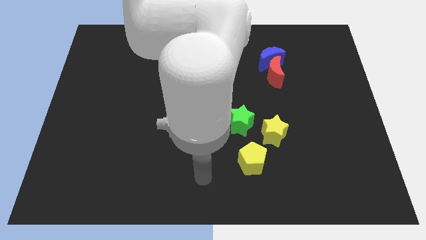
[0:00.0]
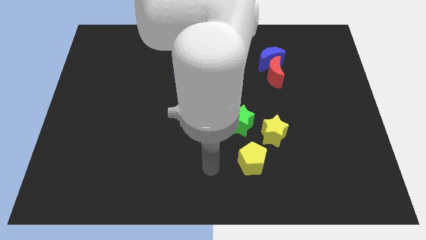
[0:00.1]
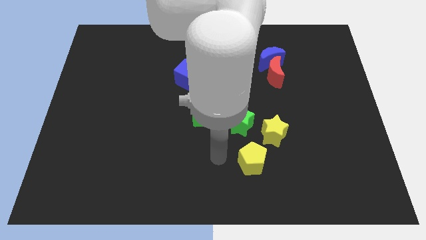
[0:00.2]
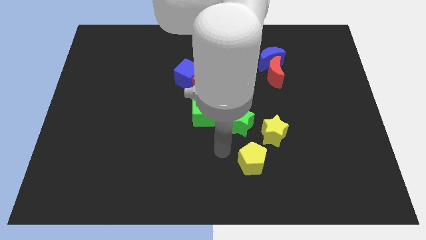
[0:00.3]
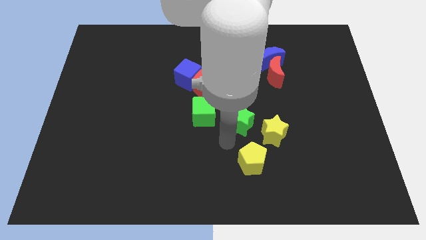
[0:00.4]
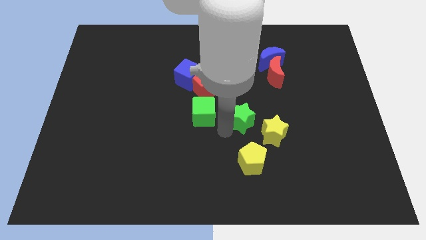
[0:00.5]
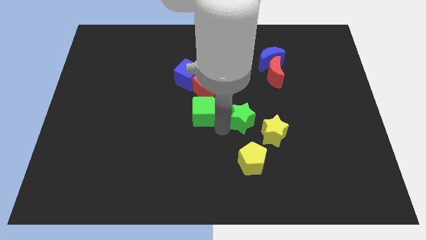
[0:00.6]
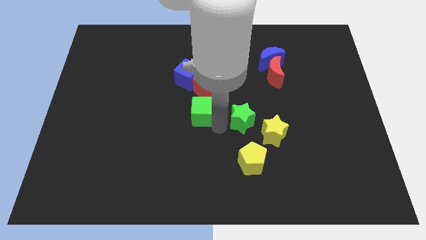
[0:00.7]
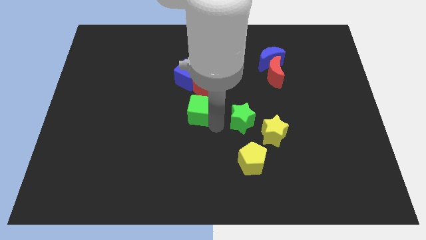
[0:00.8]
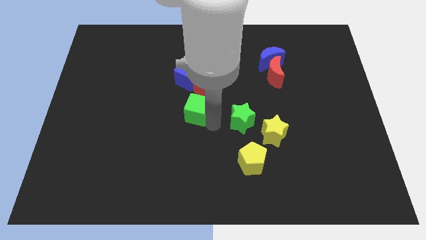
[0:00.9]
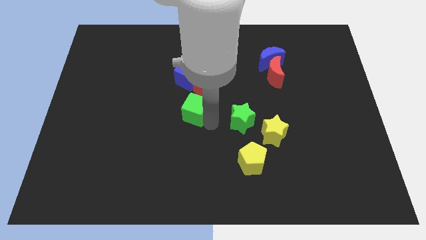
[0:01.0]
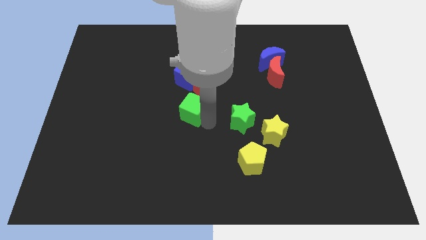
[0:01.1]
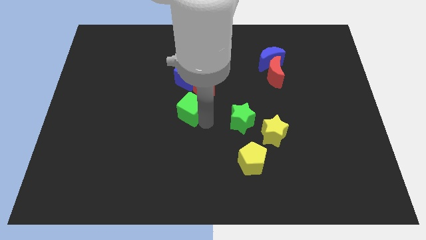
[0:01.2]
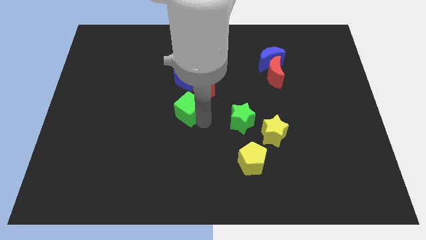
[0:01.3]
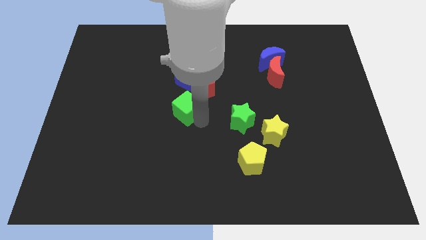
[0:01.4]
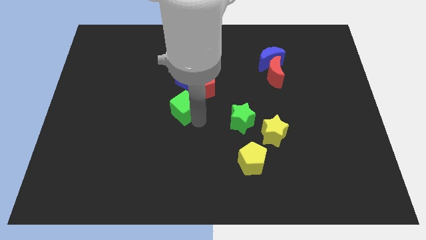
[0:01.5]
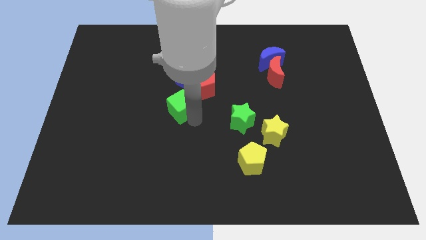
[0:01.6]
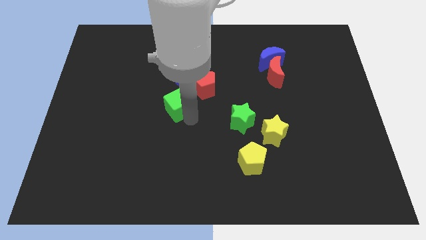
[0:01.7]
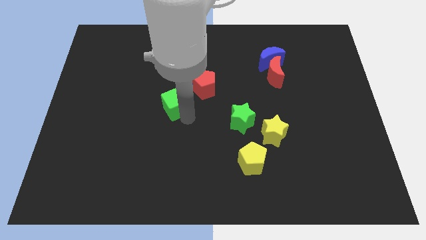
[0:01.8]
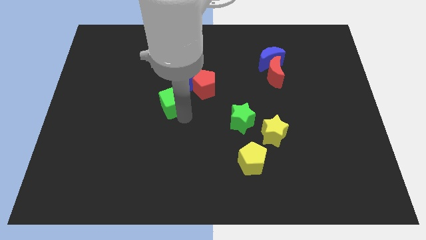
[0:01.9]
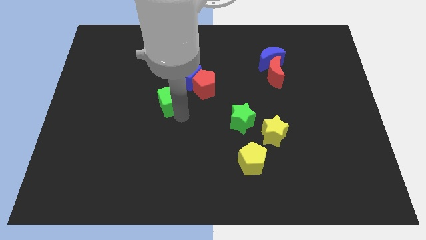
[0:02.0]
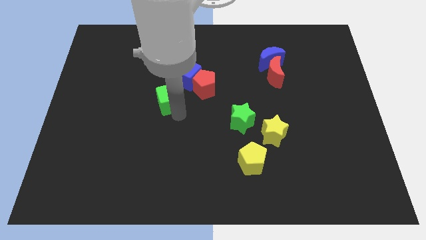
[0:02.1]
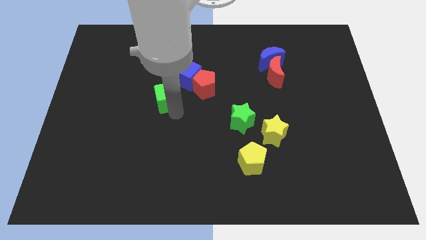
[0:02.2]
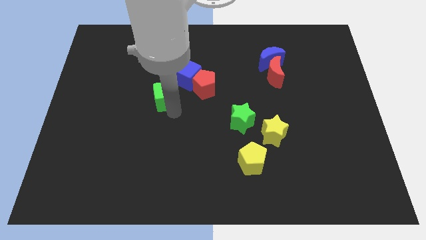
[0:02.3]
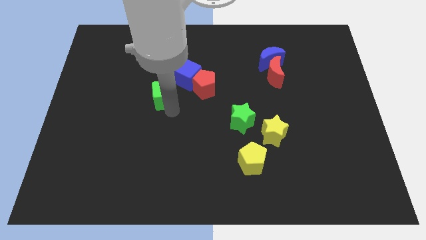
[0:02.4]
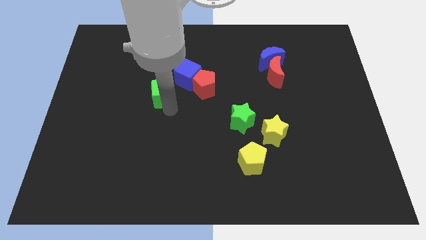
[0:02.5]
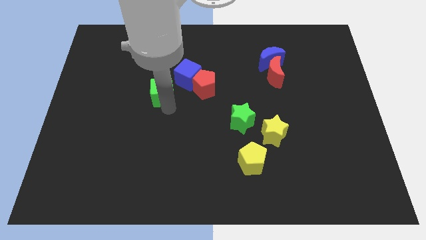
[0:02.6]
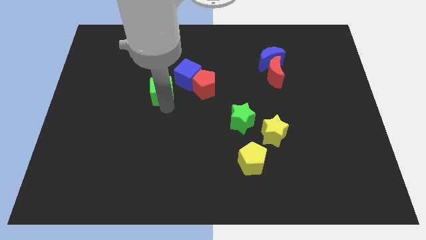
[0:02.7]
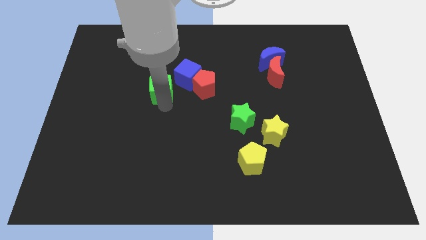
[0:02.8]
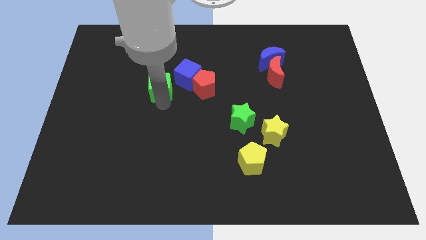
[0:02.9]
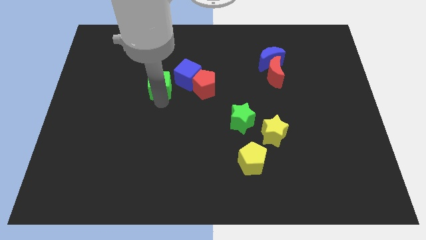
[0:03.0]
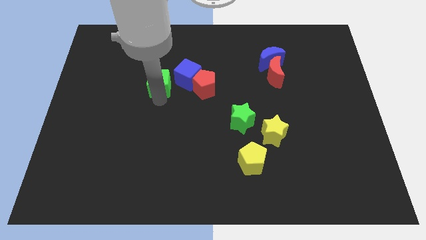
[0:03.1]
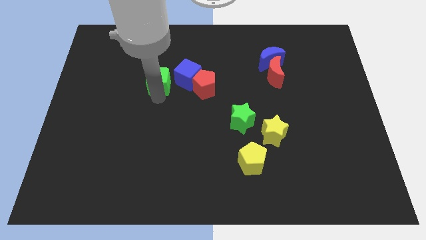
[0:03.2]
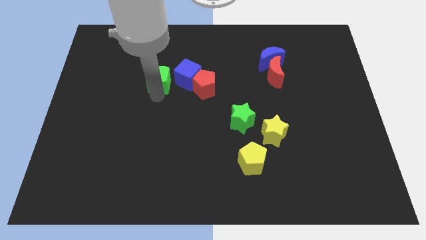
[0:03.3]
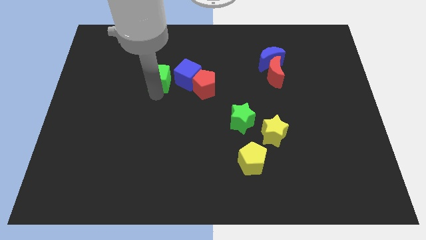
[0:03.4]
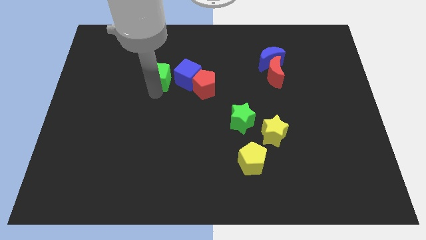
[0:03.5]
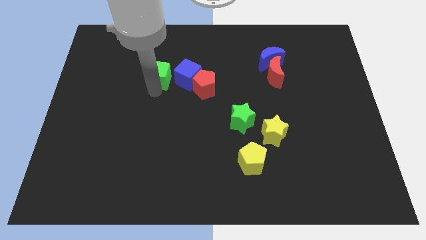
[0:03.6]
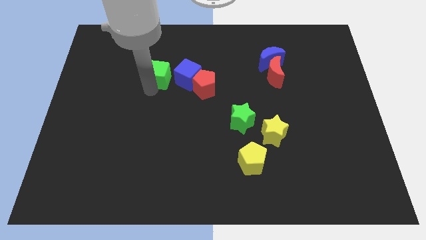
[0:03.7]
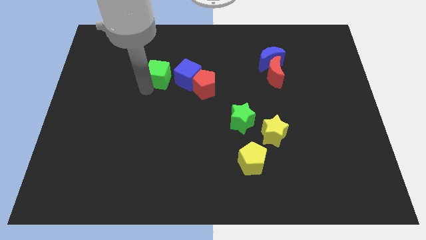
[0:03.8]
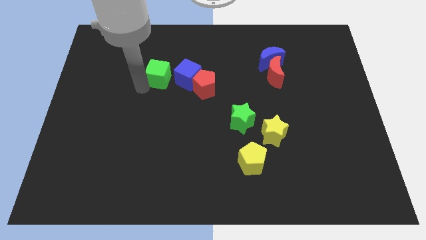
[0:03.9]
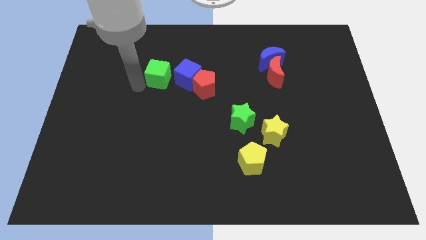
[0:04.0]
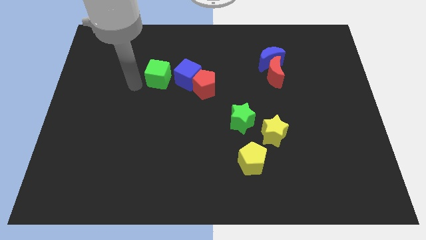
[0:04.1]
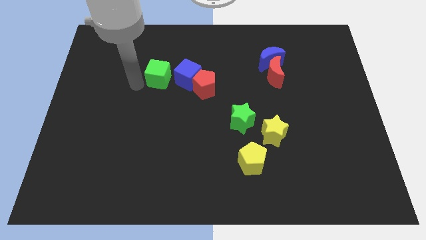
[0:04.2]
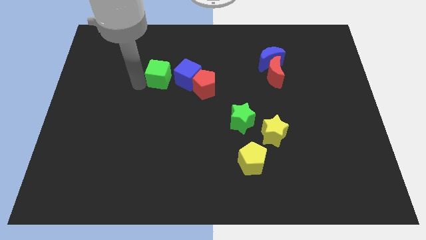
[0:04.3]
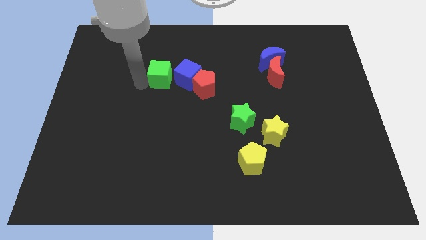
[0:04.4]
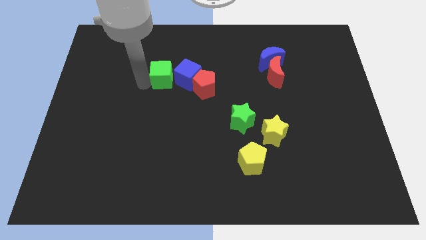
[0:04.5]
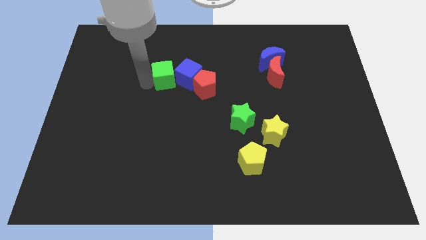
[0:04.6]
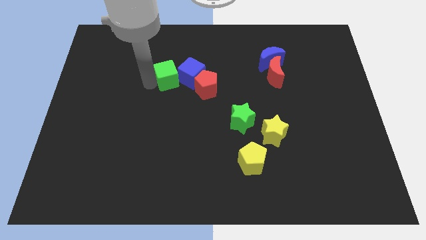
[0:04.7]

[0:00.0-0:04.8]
push the green cube a little upwards

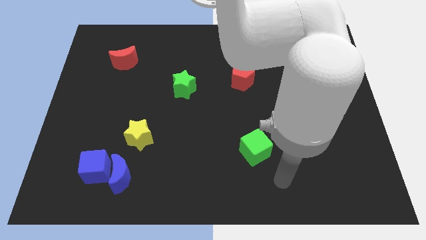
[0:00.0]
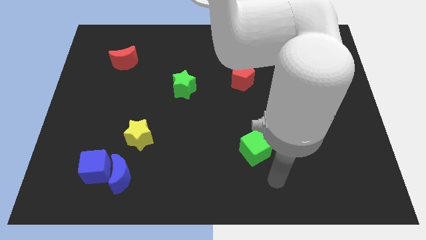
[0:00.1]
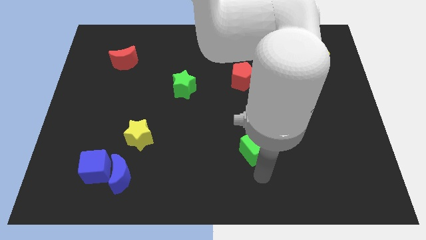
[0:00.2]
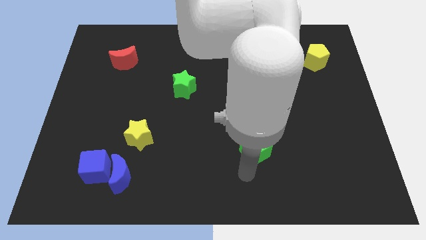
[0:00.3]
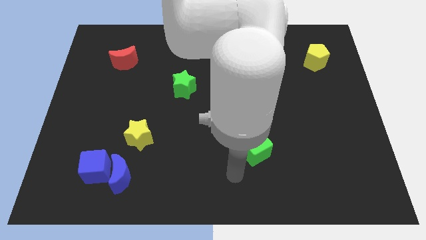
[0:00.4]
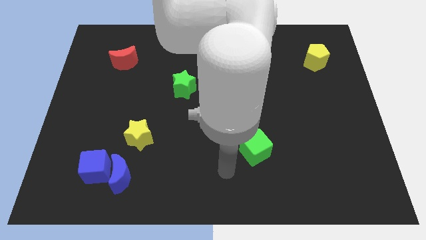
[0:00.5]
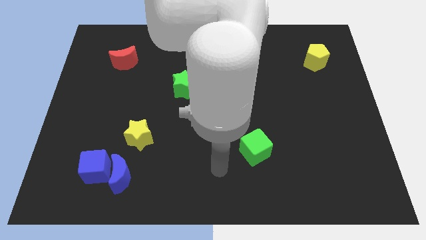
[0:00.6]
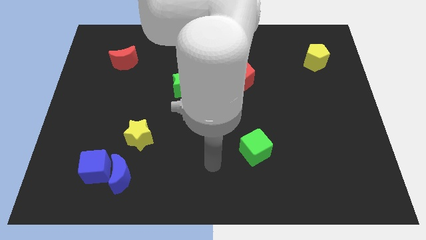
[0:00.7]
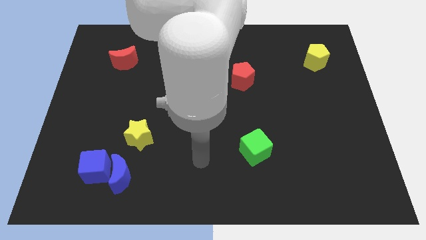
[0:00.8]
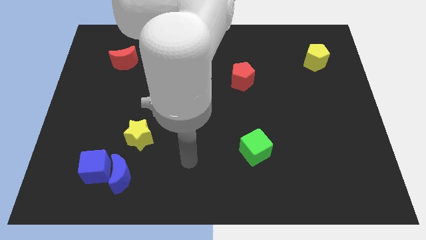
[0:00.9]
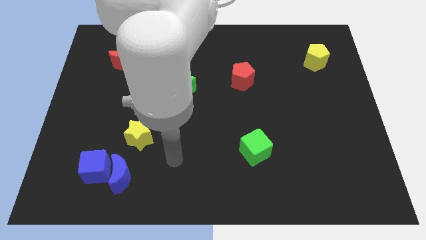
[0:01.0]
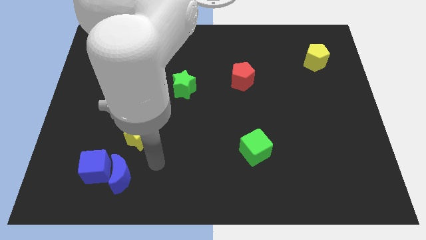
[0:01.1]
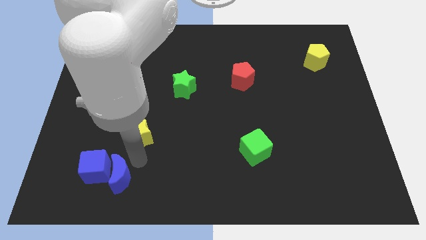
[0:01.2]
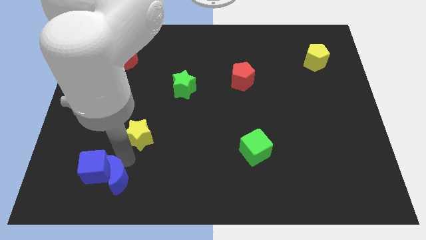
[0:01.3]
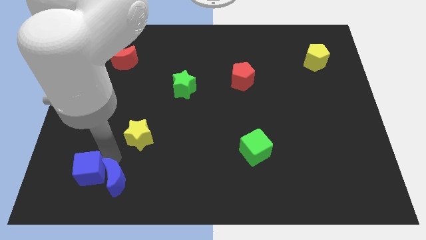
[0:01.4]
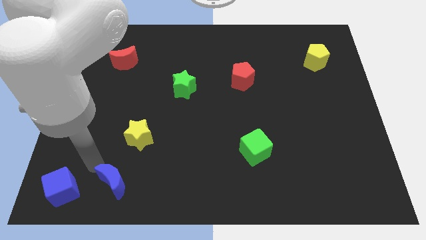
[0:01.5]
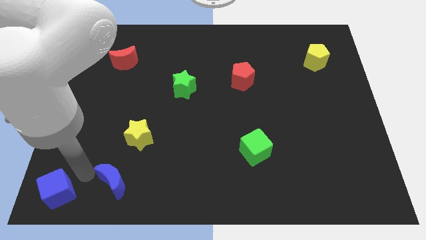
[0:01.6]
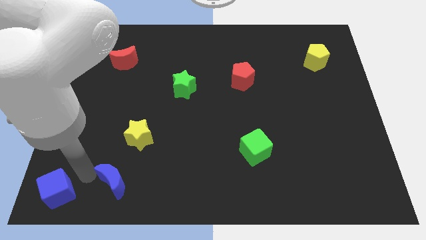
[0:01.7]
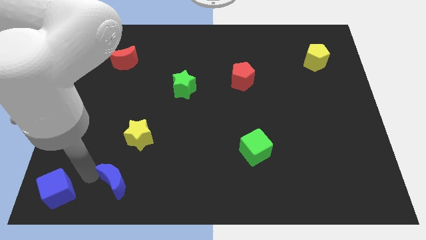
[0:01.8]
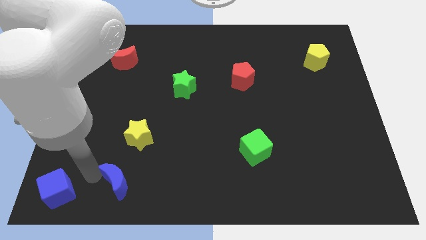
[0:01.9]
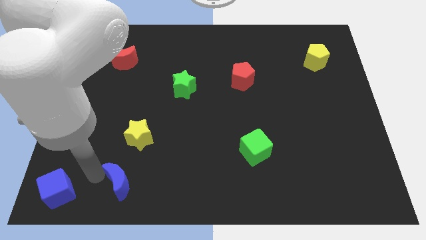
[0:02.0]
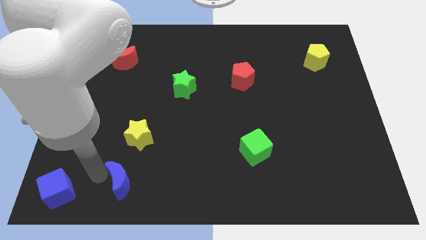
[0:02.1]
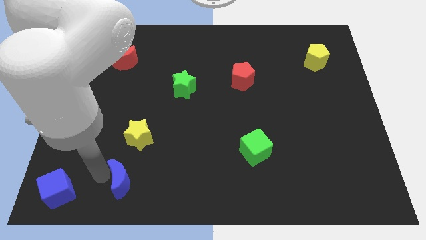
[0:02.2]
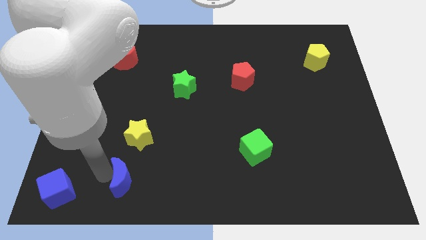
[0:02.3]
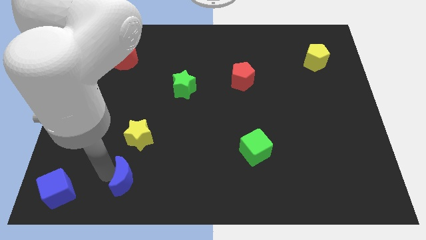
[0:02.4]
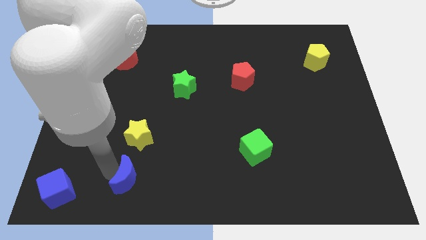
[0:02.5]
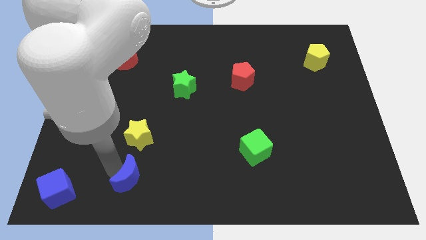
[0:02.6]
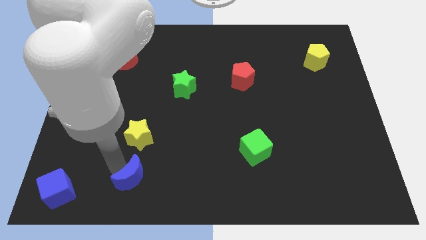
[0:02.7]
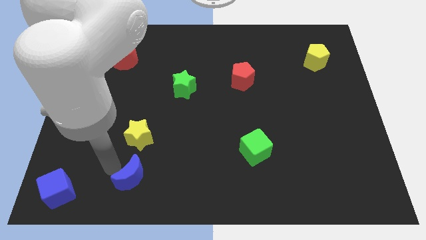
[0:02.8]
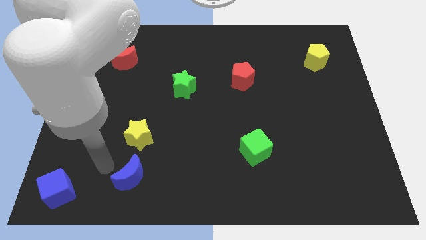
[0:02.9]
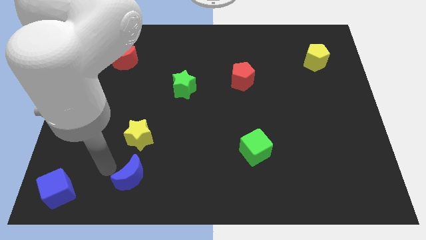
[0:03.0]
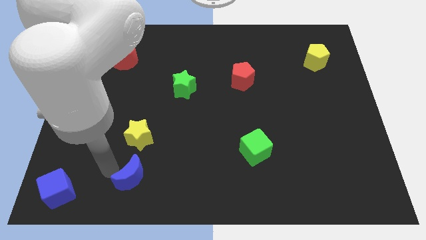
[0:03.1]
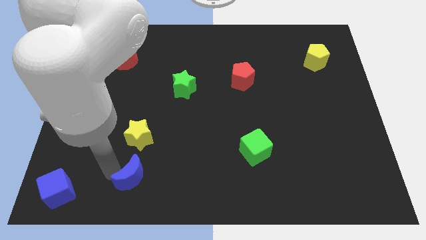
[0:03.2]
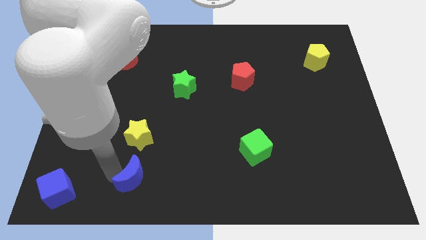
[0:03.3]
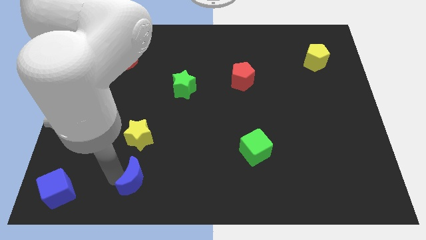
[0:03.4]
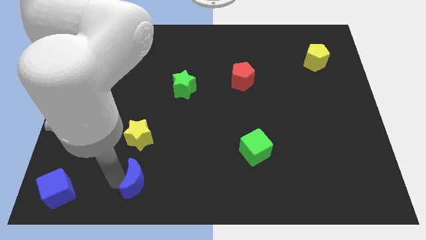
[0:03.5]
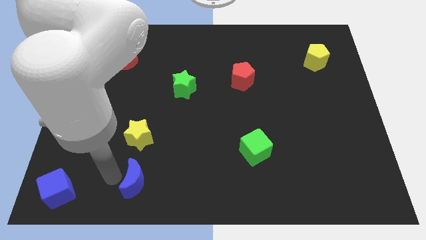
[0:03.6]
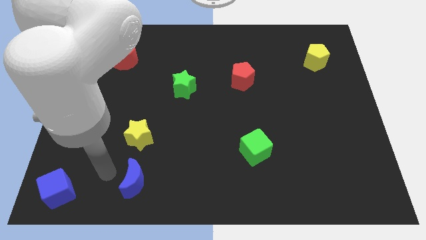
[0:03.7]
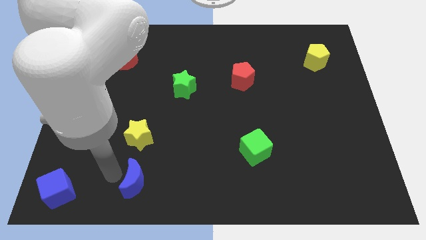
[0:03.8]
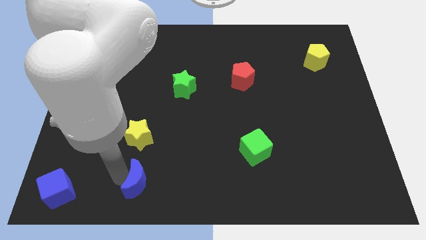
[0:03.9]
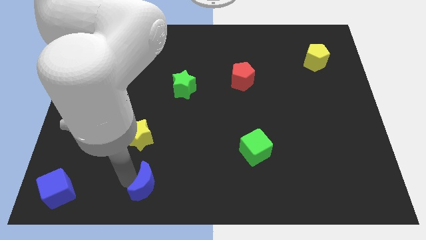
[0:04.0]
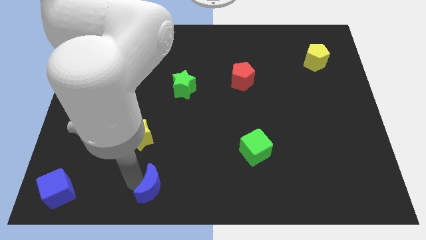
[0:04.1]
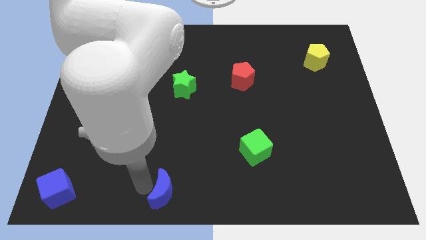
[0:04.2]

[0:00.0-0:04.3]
push the blue moon slightly right
